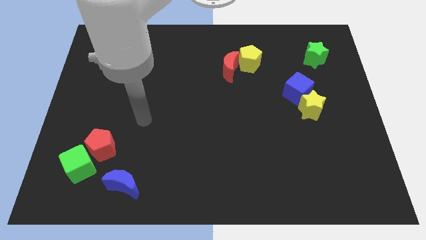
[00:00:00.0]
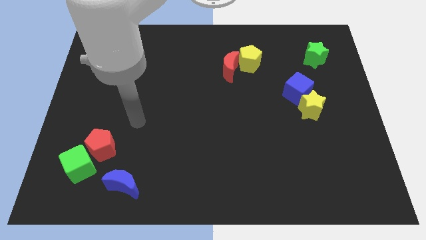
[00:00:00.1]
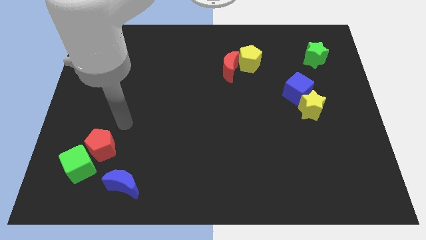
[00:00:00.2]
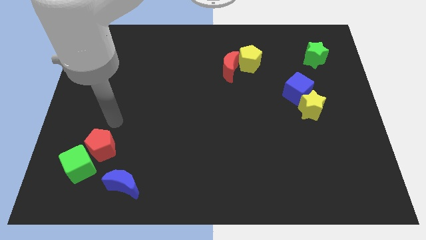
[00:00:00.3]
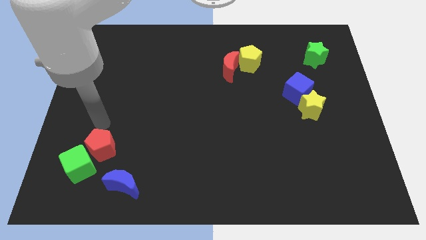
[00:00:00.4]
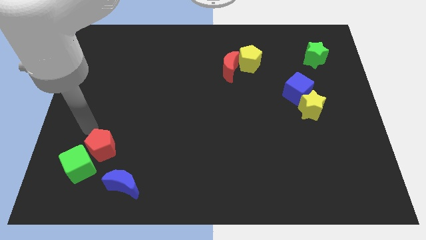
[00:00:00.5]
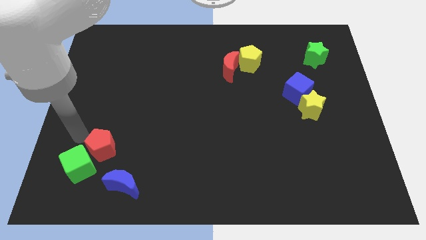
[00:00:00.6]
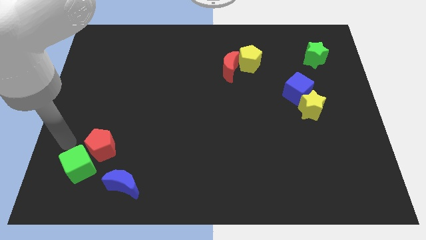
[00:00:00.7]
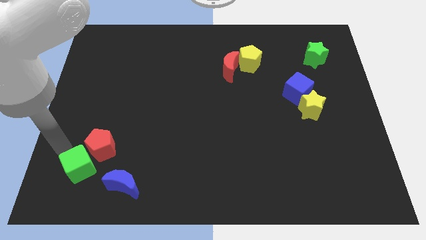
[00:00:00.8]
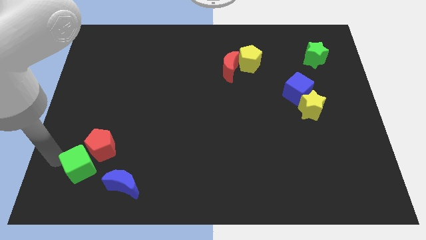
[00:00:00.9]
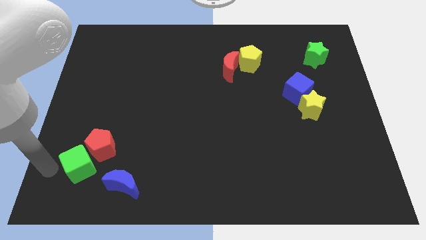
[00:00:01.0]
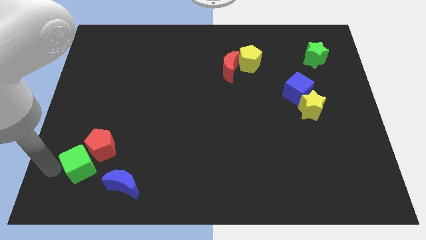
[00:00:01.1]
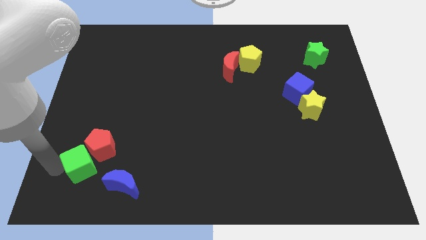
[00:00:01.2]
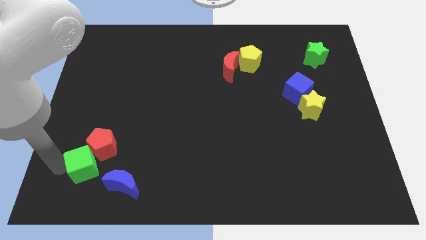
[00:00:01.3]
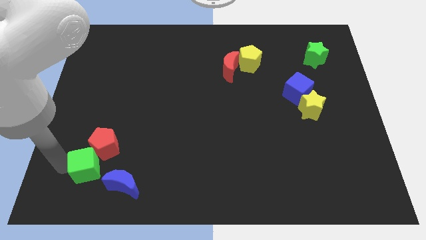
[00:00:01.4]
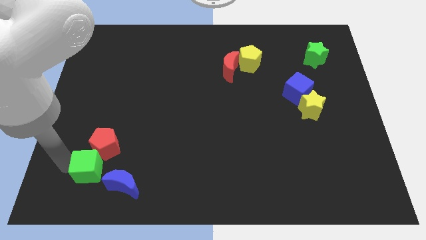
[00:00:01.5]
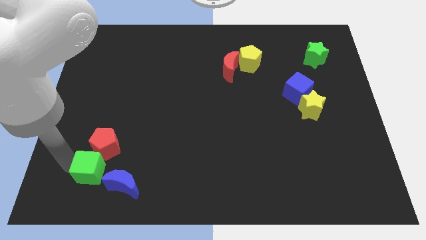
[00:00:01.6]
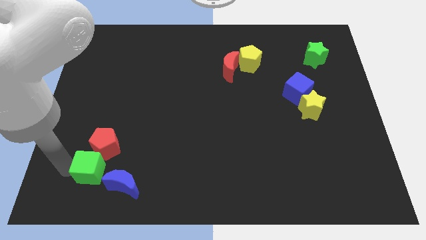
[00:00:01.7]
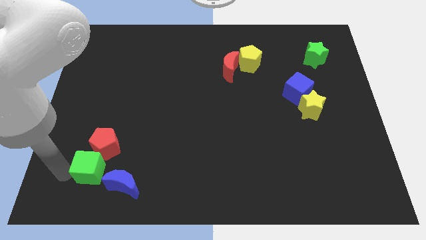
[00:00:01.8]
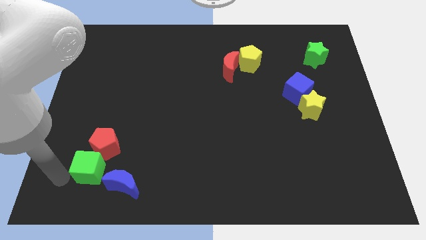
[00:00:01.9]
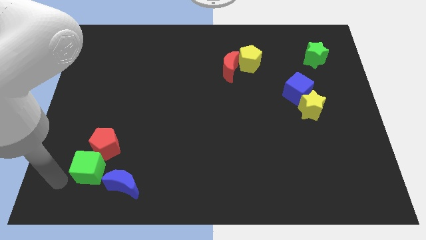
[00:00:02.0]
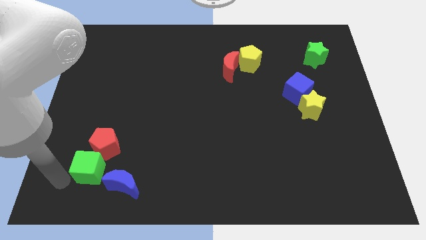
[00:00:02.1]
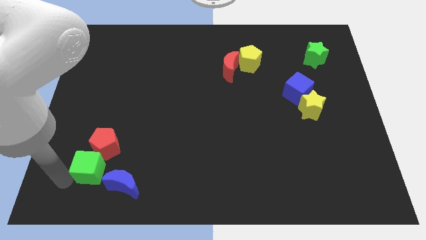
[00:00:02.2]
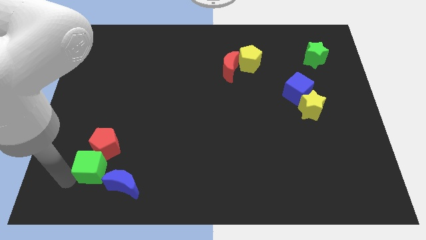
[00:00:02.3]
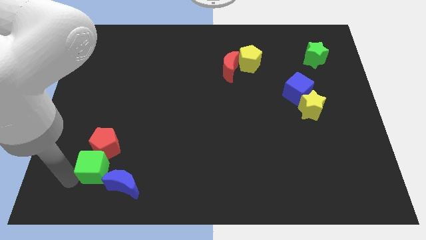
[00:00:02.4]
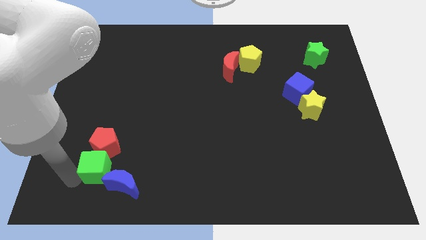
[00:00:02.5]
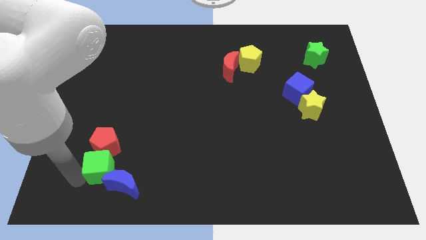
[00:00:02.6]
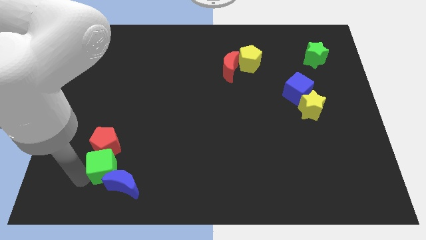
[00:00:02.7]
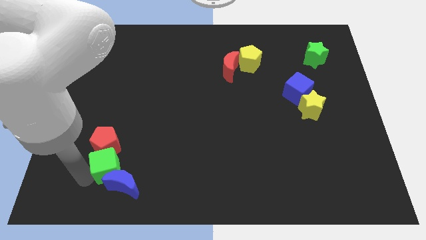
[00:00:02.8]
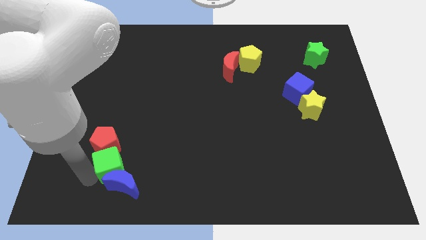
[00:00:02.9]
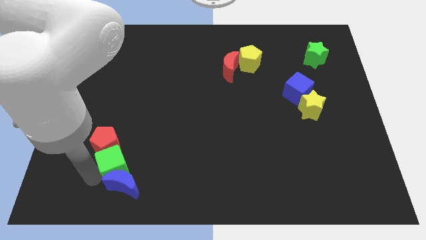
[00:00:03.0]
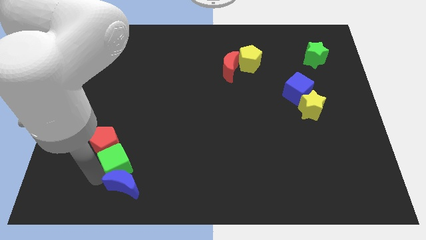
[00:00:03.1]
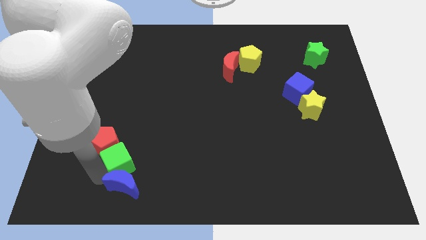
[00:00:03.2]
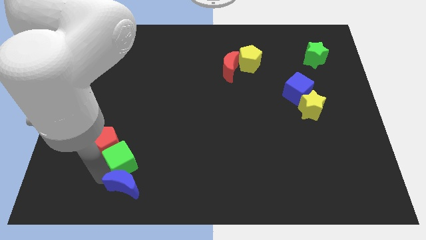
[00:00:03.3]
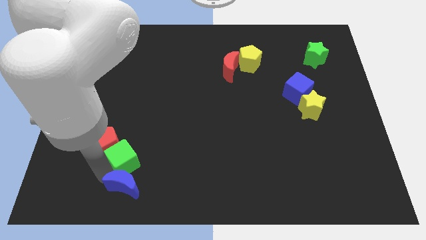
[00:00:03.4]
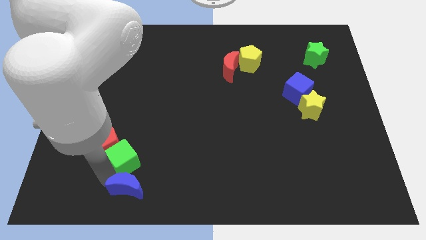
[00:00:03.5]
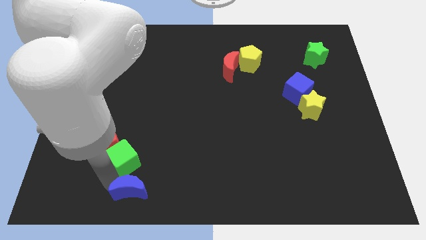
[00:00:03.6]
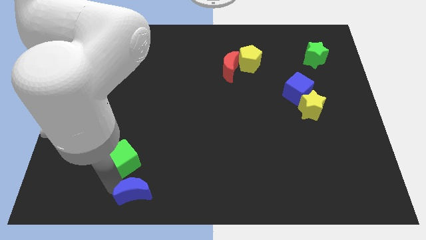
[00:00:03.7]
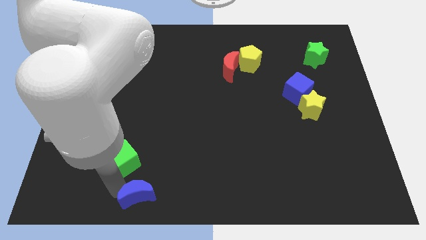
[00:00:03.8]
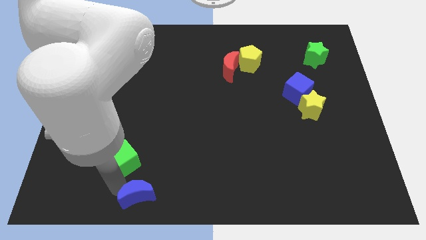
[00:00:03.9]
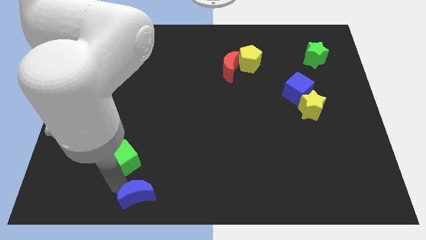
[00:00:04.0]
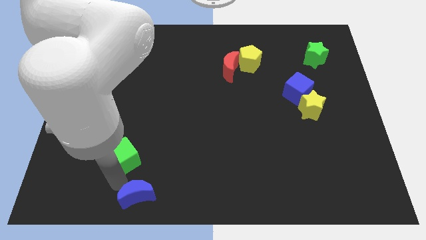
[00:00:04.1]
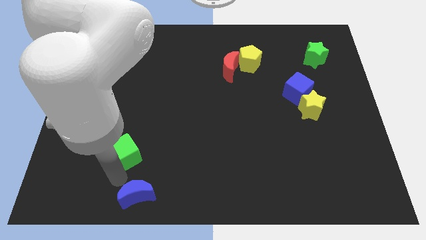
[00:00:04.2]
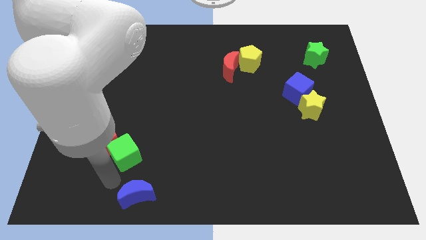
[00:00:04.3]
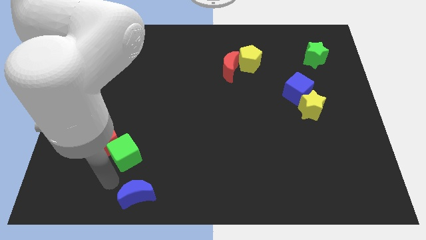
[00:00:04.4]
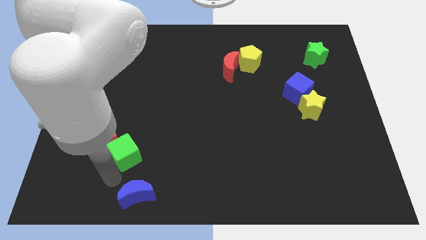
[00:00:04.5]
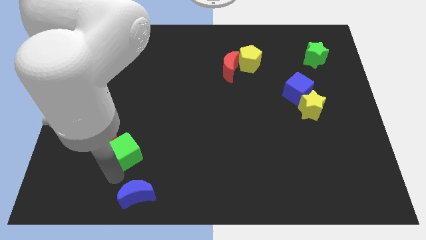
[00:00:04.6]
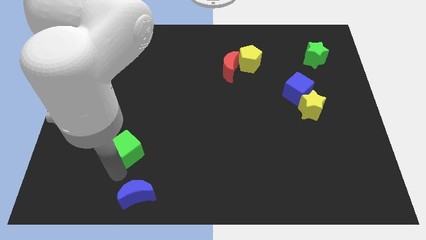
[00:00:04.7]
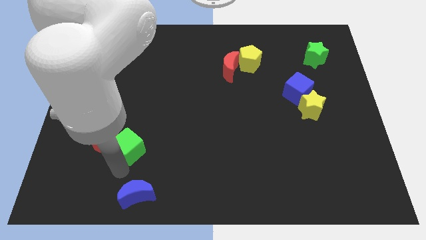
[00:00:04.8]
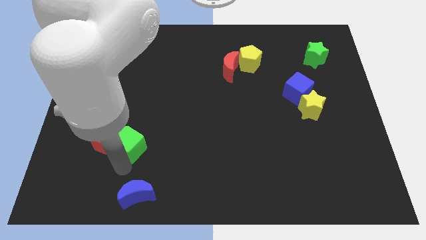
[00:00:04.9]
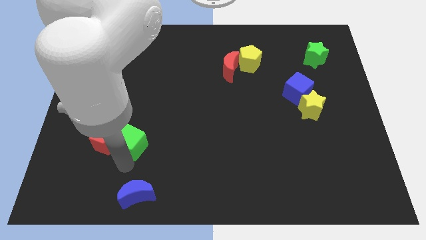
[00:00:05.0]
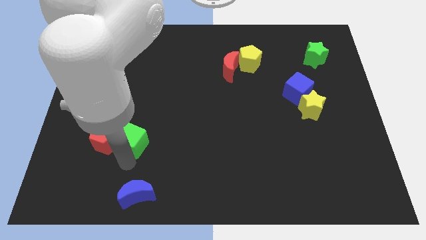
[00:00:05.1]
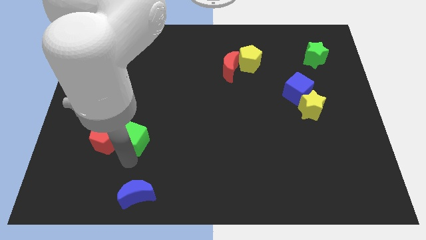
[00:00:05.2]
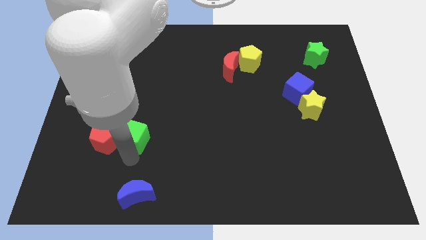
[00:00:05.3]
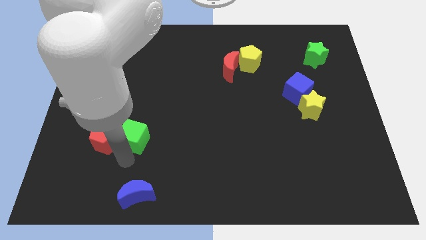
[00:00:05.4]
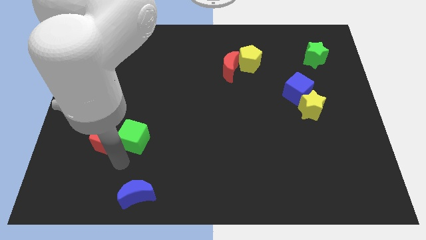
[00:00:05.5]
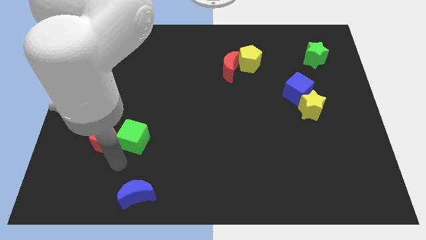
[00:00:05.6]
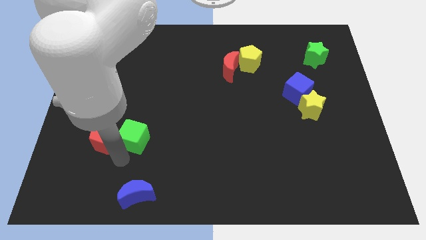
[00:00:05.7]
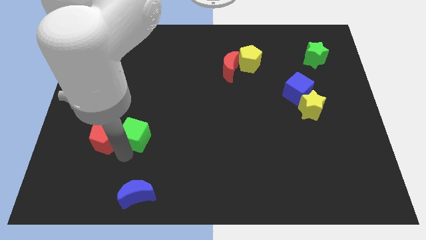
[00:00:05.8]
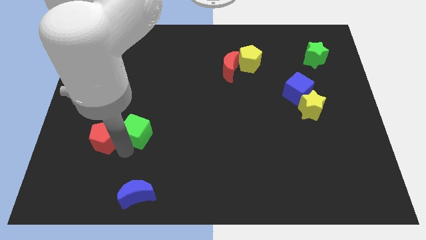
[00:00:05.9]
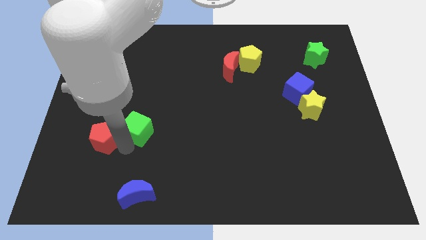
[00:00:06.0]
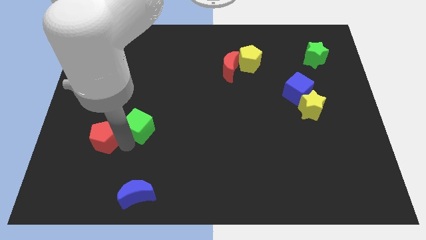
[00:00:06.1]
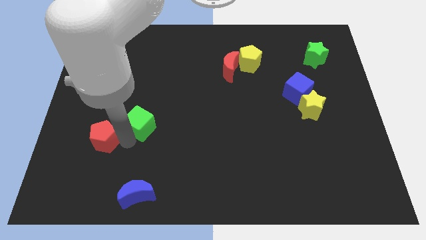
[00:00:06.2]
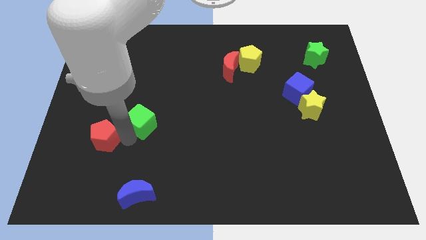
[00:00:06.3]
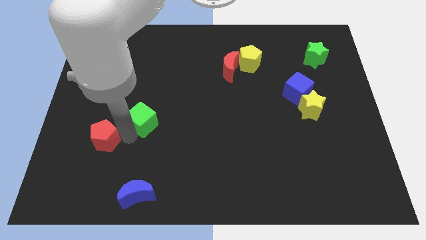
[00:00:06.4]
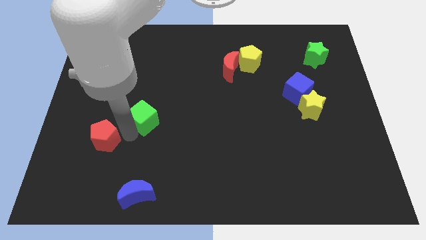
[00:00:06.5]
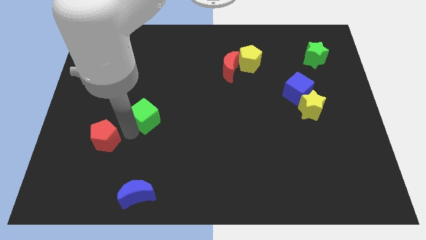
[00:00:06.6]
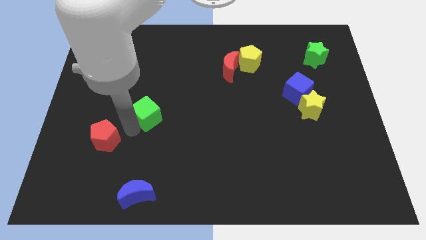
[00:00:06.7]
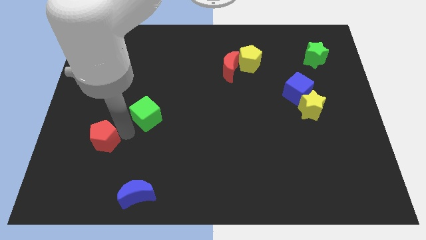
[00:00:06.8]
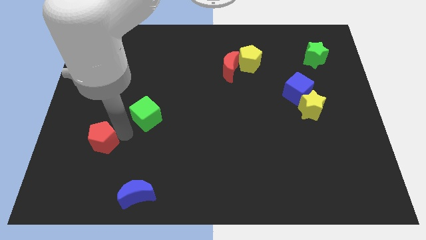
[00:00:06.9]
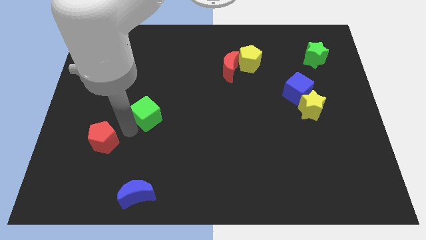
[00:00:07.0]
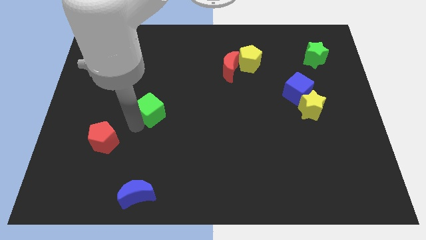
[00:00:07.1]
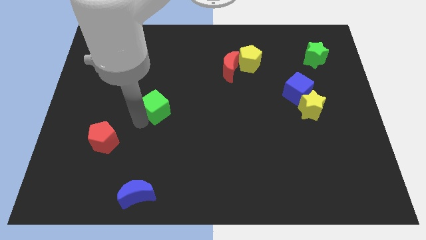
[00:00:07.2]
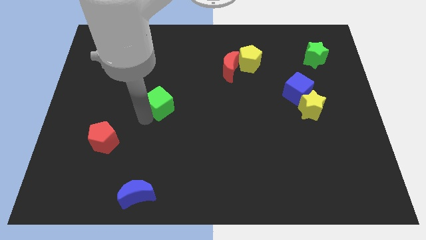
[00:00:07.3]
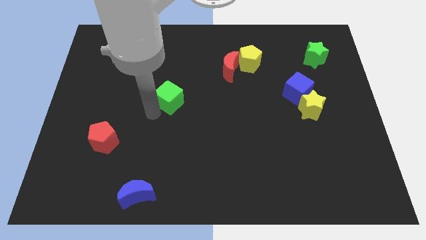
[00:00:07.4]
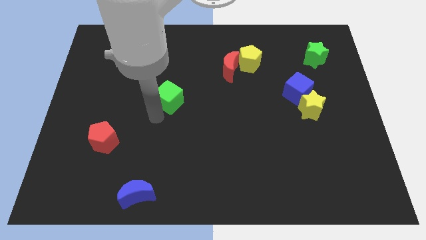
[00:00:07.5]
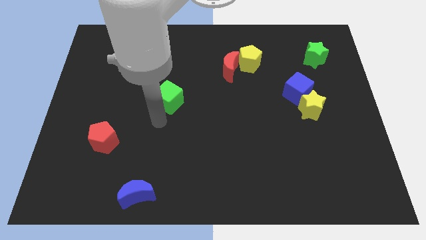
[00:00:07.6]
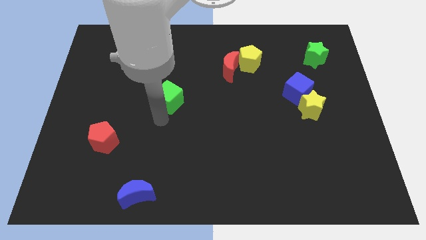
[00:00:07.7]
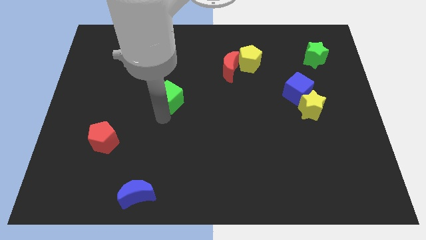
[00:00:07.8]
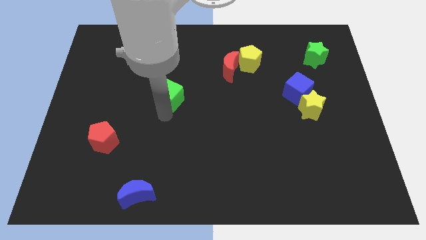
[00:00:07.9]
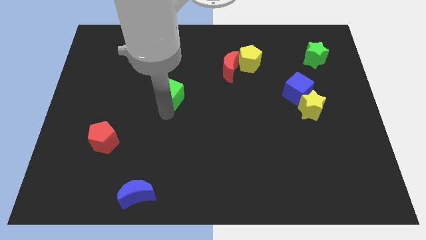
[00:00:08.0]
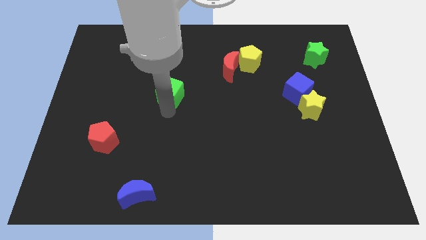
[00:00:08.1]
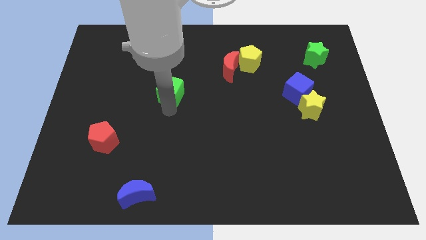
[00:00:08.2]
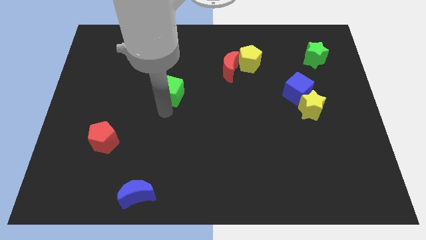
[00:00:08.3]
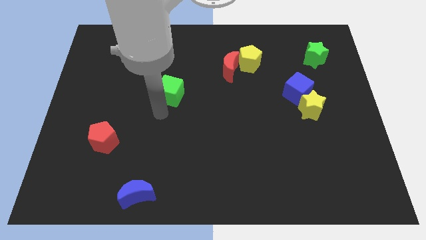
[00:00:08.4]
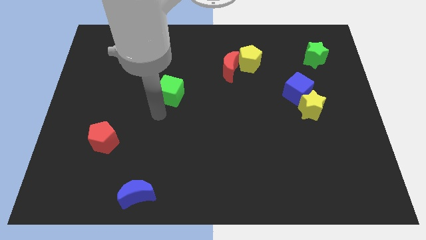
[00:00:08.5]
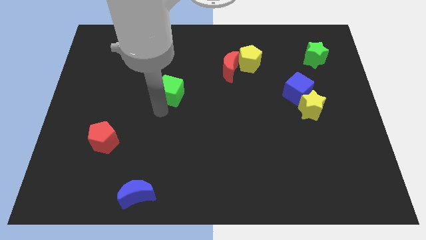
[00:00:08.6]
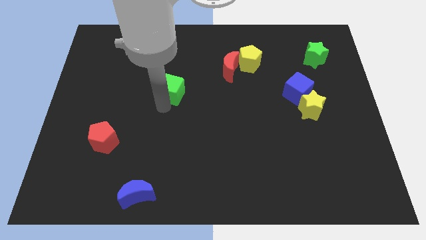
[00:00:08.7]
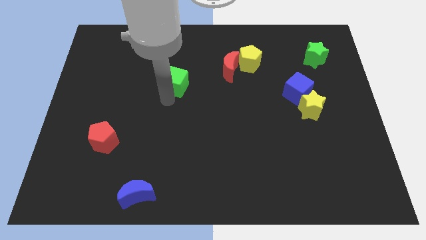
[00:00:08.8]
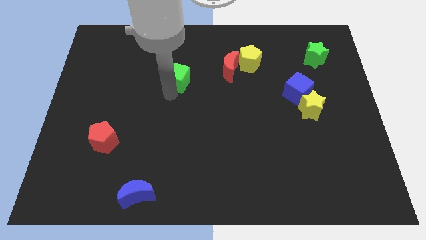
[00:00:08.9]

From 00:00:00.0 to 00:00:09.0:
put the green cube just left of the red moon
